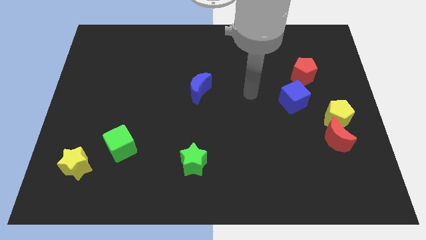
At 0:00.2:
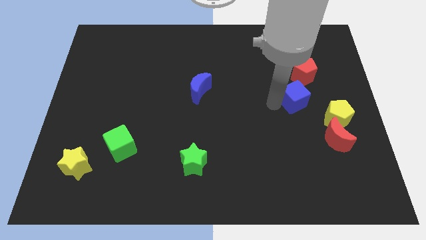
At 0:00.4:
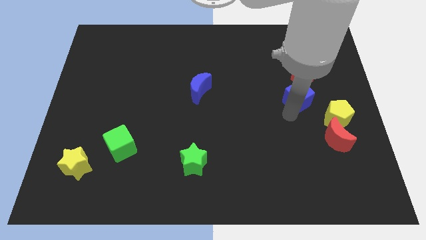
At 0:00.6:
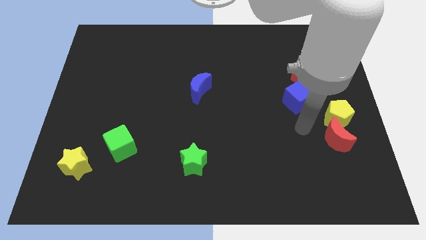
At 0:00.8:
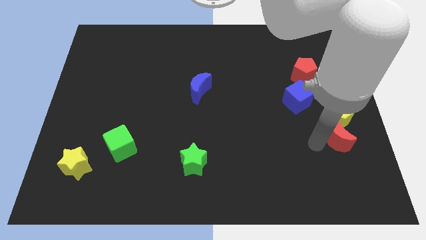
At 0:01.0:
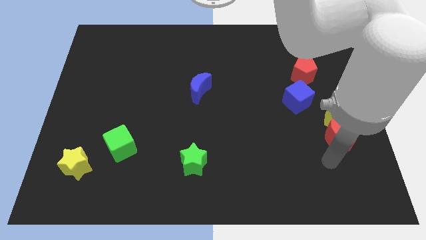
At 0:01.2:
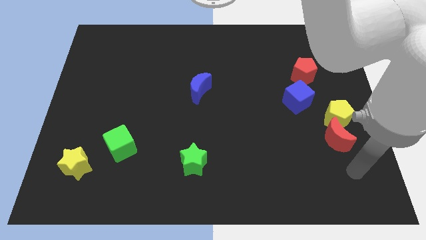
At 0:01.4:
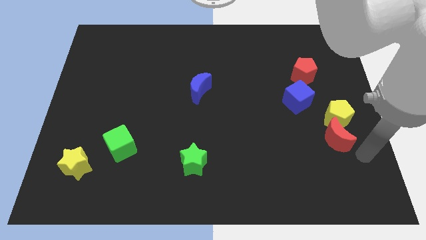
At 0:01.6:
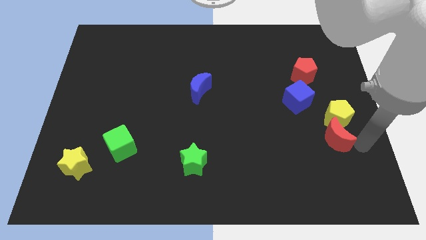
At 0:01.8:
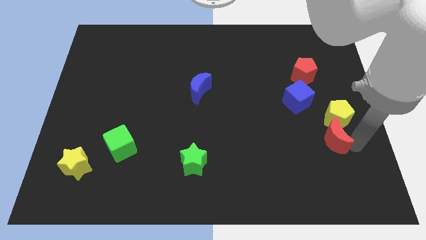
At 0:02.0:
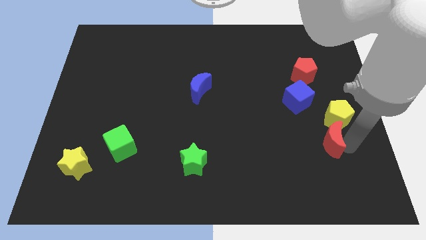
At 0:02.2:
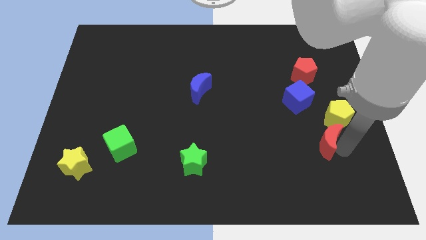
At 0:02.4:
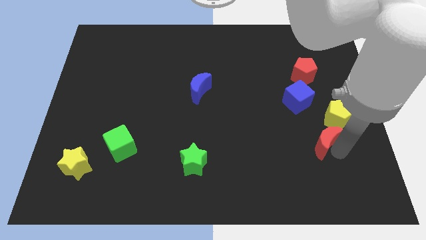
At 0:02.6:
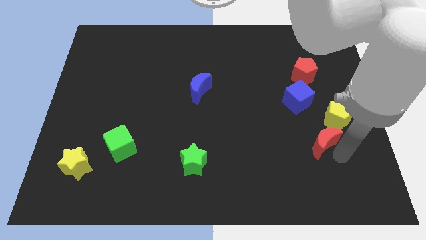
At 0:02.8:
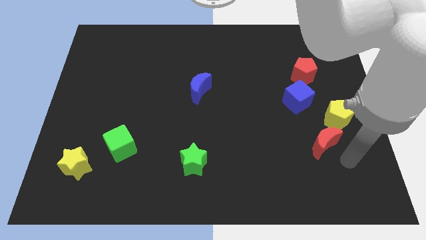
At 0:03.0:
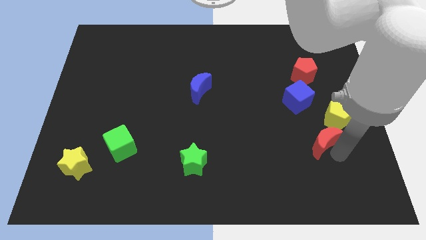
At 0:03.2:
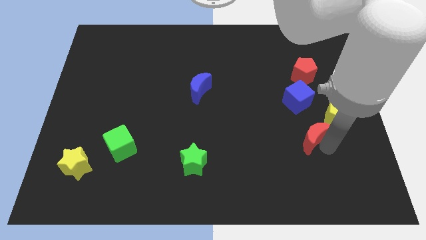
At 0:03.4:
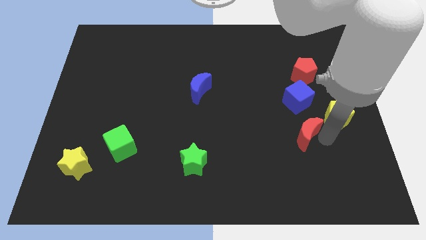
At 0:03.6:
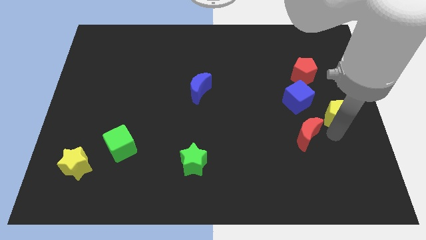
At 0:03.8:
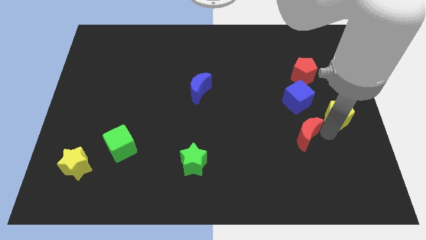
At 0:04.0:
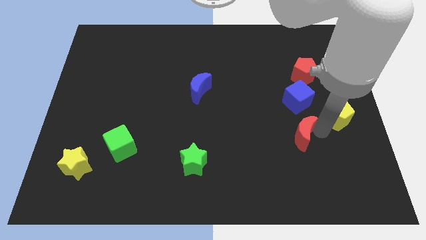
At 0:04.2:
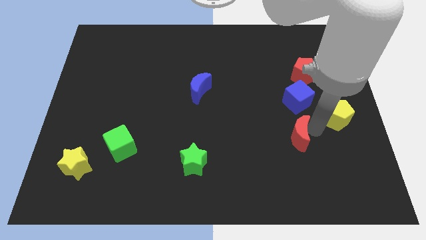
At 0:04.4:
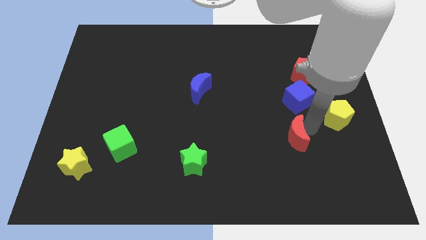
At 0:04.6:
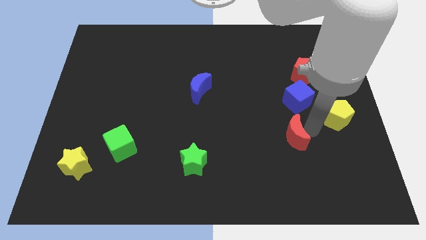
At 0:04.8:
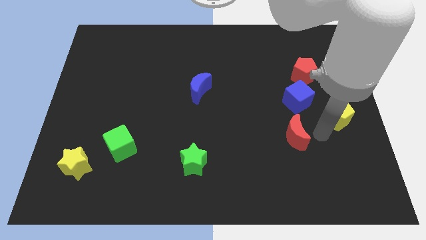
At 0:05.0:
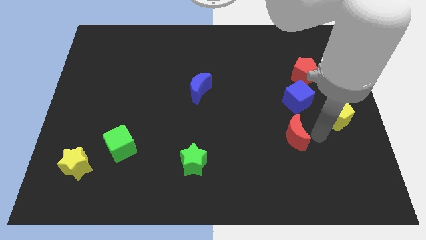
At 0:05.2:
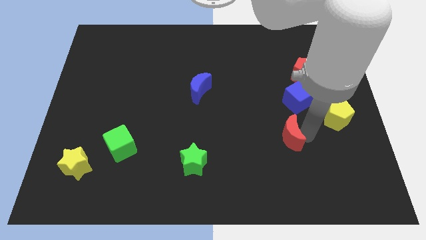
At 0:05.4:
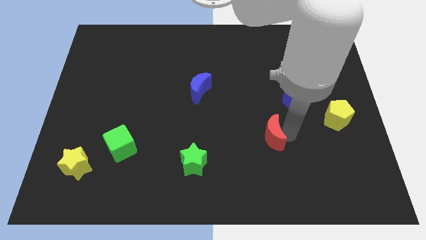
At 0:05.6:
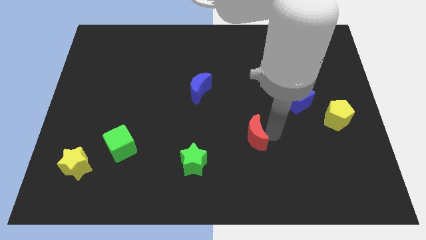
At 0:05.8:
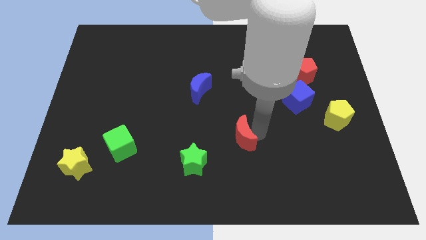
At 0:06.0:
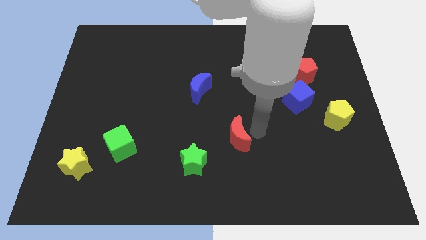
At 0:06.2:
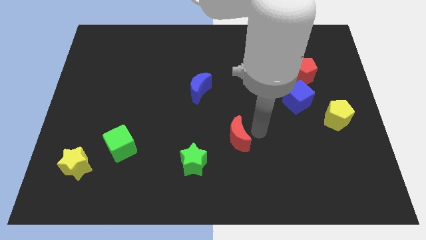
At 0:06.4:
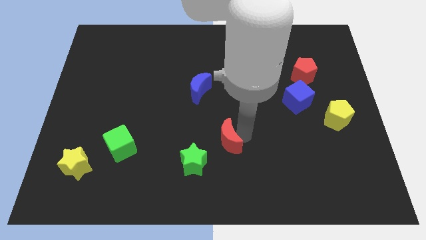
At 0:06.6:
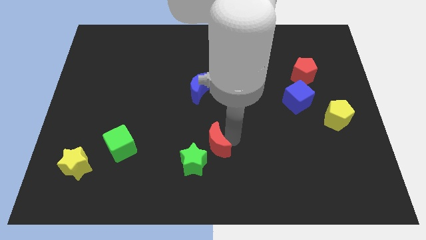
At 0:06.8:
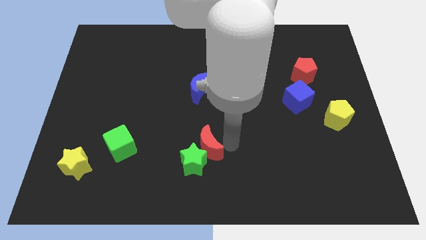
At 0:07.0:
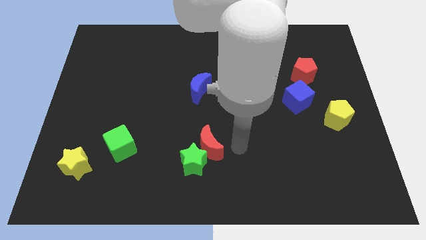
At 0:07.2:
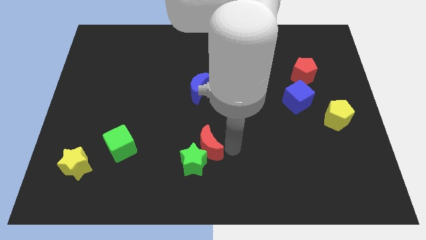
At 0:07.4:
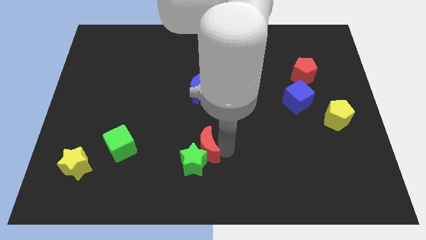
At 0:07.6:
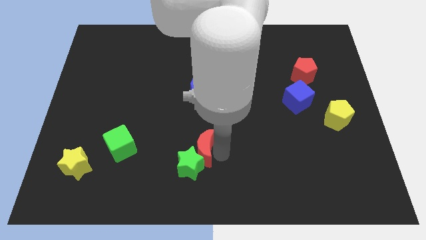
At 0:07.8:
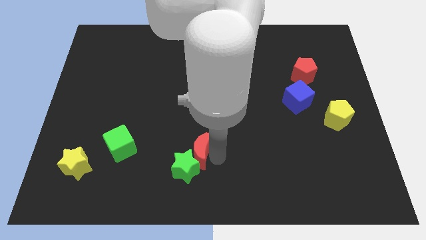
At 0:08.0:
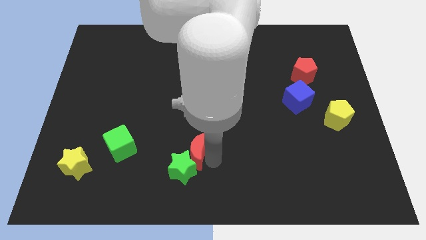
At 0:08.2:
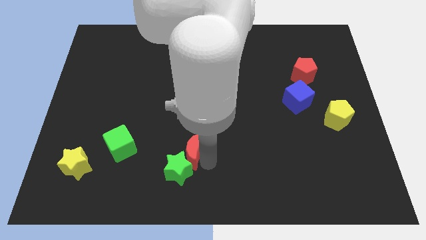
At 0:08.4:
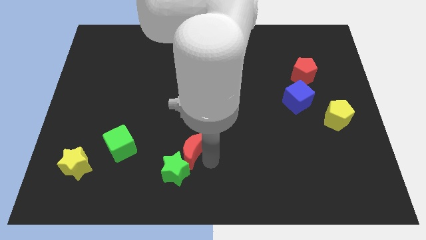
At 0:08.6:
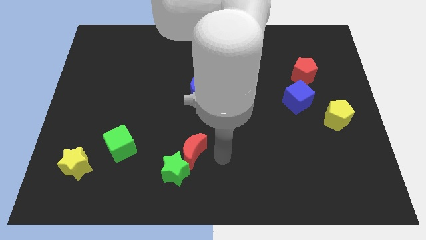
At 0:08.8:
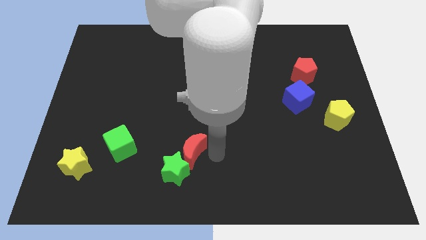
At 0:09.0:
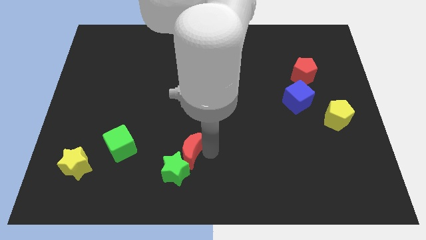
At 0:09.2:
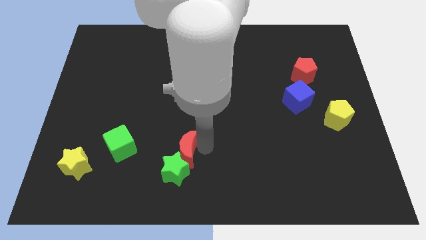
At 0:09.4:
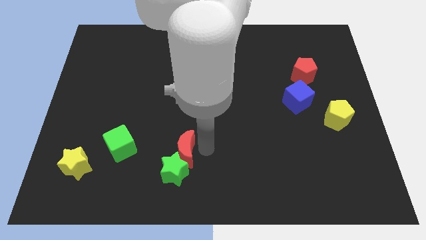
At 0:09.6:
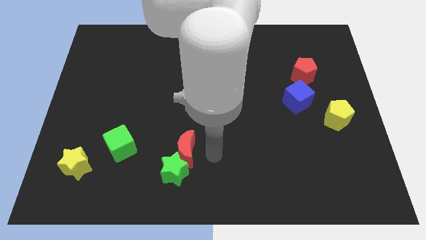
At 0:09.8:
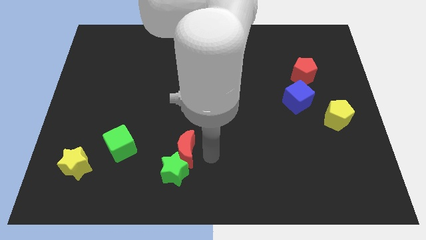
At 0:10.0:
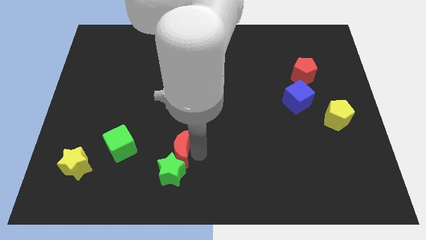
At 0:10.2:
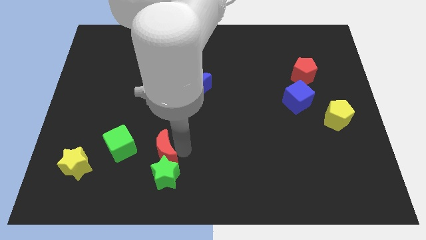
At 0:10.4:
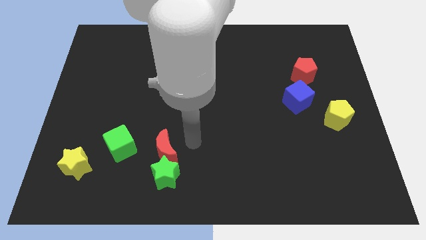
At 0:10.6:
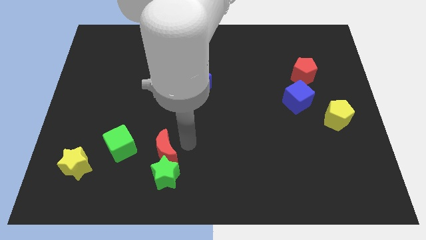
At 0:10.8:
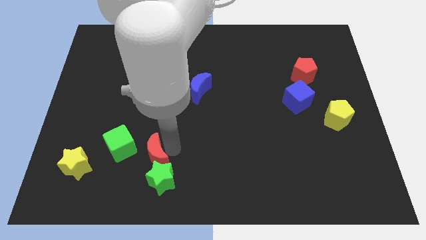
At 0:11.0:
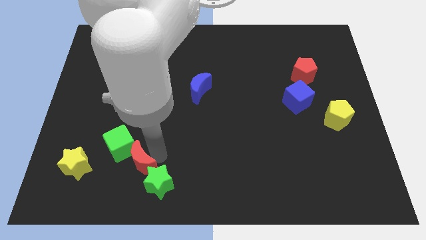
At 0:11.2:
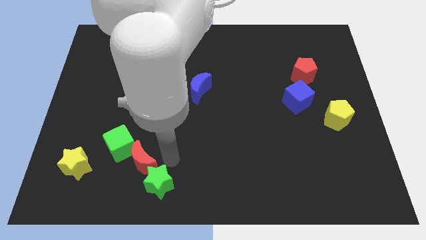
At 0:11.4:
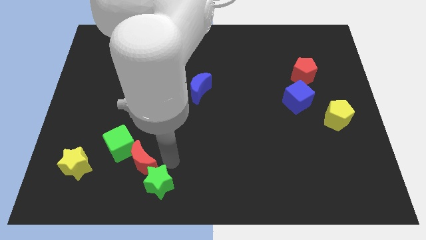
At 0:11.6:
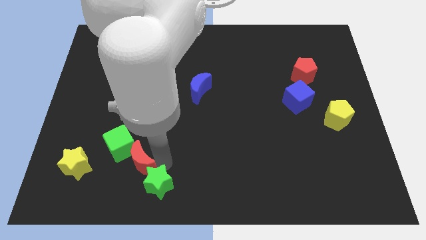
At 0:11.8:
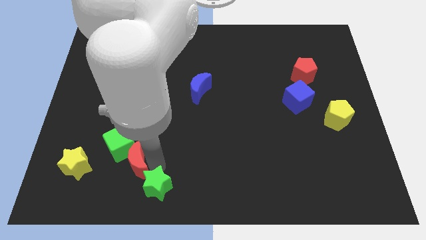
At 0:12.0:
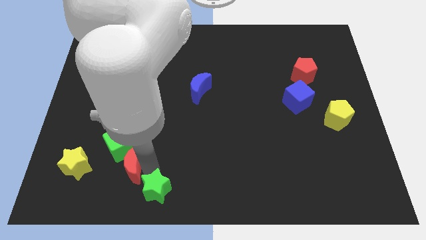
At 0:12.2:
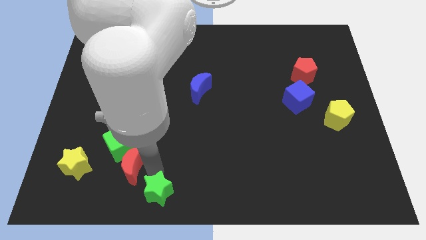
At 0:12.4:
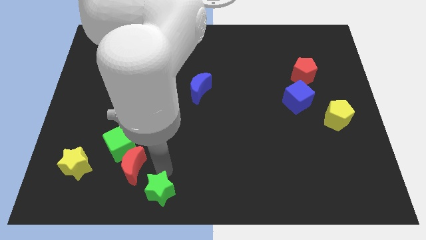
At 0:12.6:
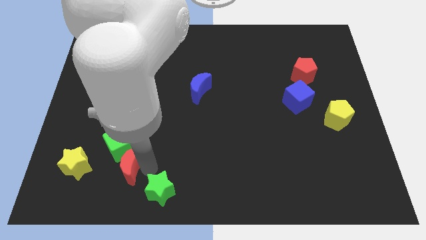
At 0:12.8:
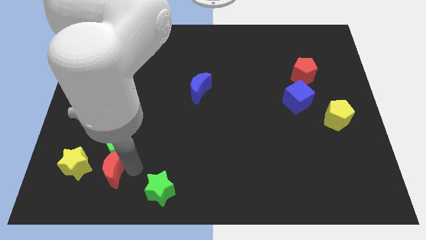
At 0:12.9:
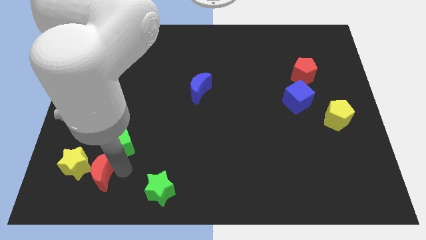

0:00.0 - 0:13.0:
push the red moon to the yellow star
